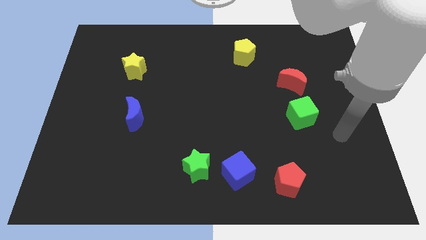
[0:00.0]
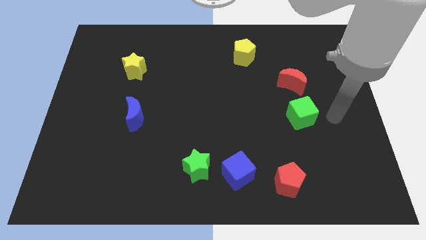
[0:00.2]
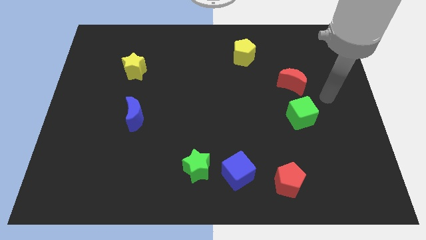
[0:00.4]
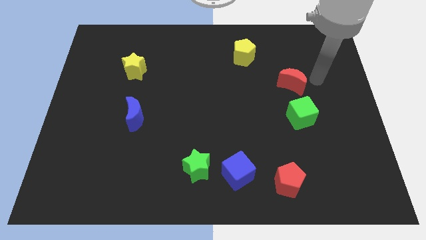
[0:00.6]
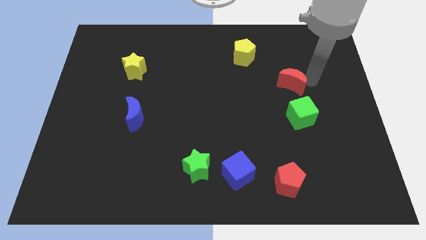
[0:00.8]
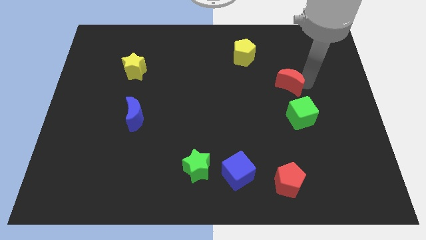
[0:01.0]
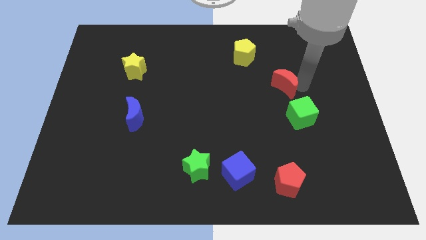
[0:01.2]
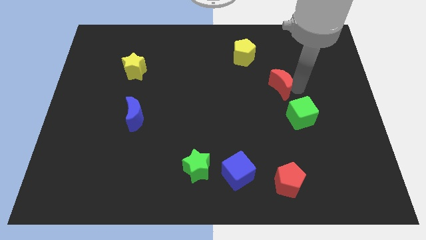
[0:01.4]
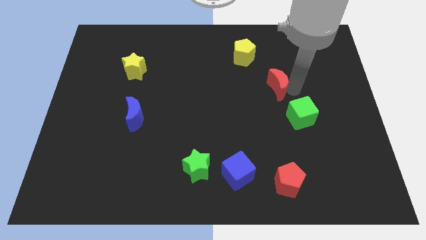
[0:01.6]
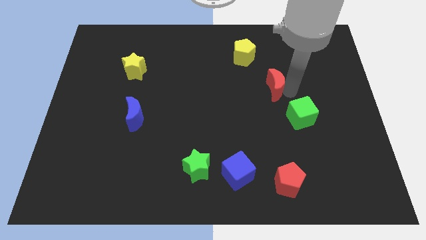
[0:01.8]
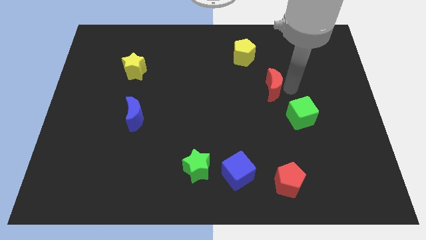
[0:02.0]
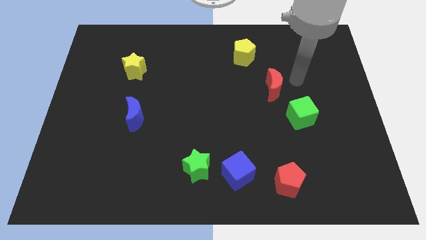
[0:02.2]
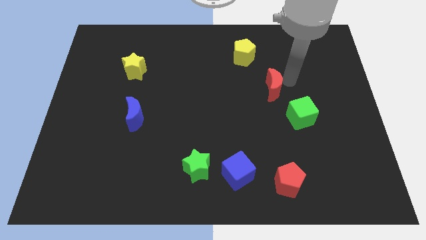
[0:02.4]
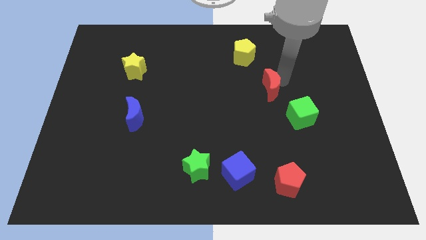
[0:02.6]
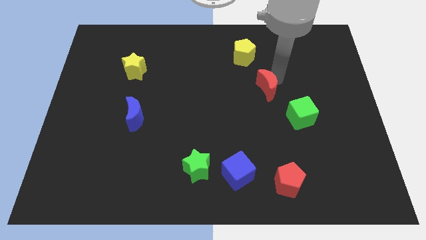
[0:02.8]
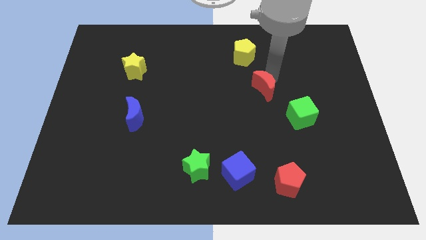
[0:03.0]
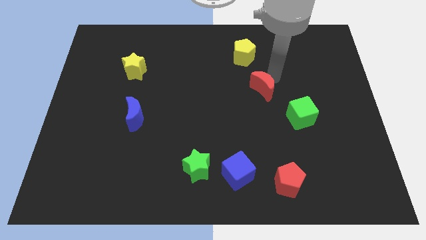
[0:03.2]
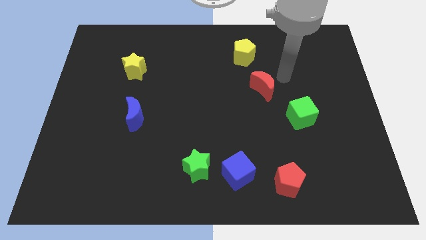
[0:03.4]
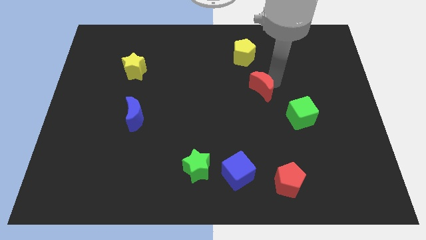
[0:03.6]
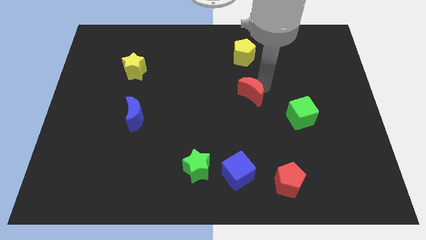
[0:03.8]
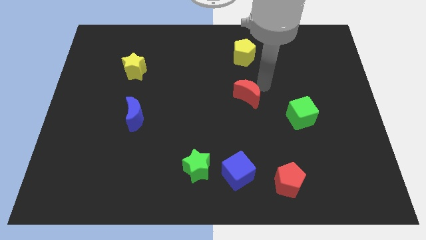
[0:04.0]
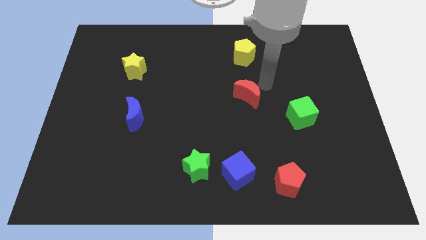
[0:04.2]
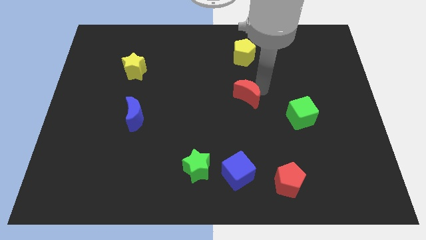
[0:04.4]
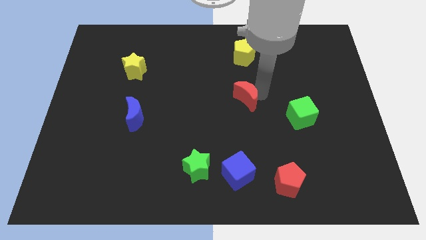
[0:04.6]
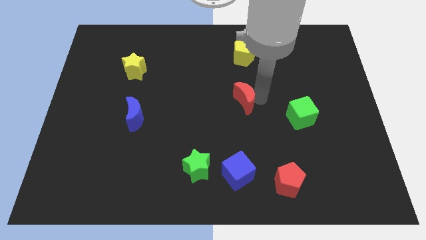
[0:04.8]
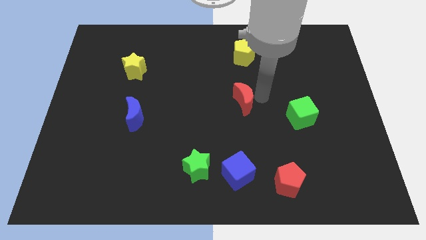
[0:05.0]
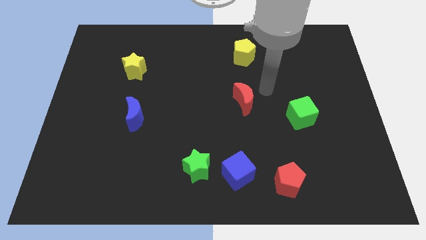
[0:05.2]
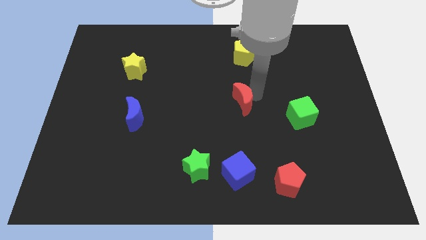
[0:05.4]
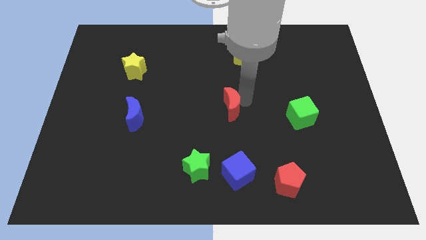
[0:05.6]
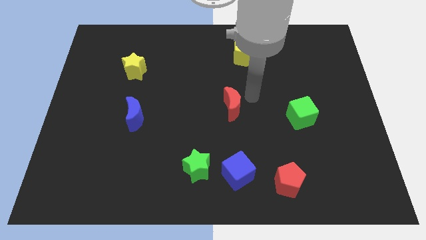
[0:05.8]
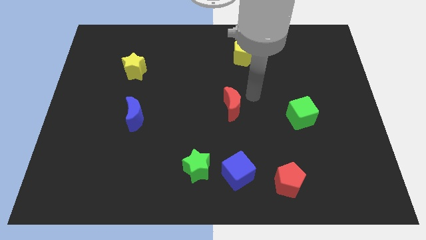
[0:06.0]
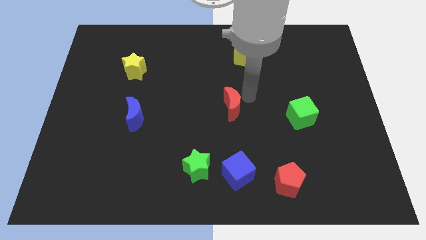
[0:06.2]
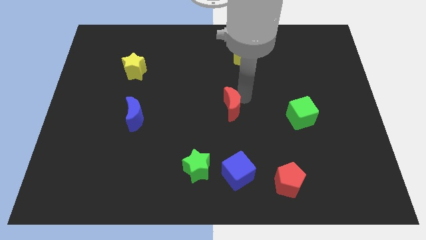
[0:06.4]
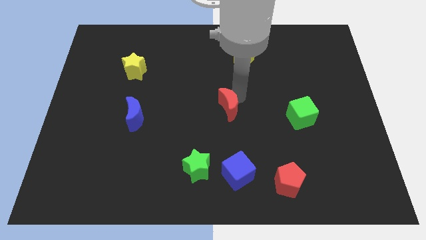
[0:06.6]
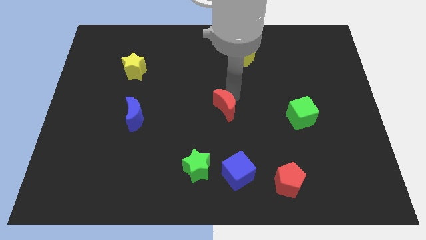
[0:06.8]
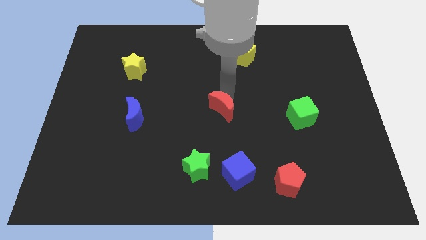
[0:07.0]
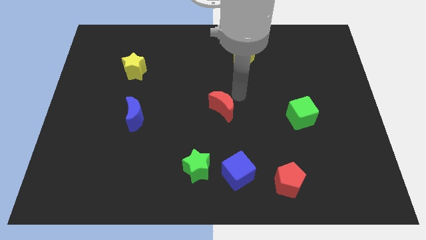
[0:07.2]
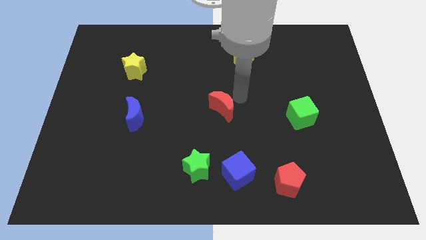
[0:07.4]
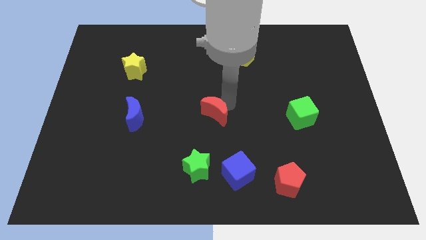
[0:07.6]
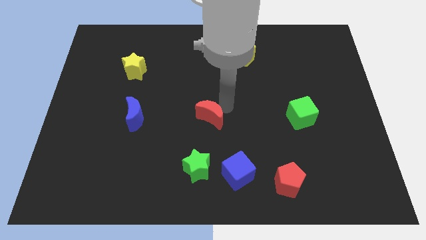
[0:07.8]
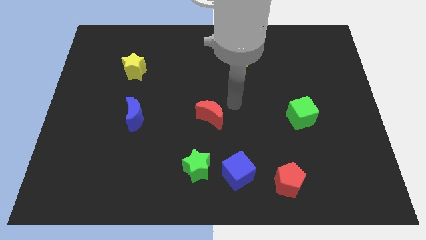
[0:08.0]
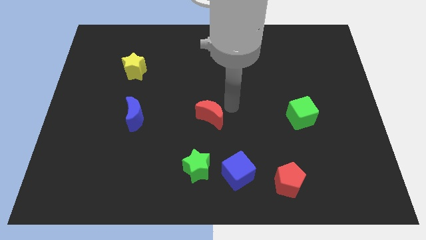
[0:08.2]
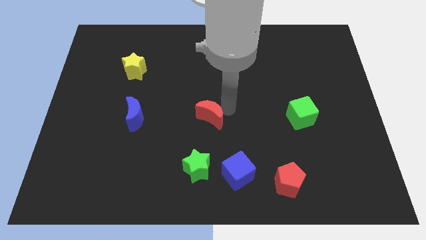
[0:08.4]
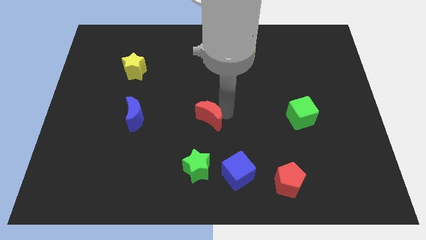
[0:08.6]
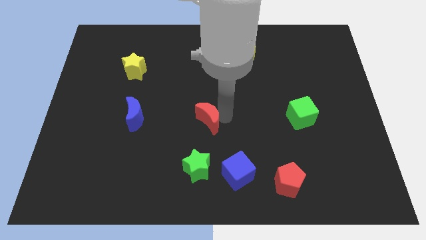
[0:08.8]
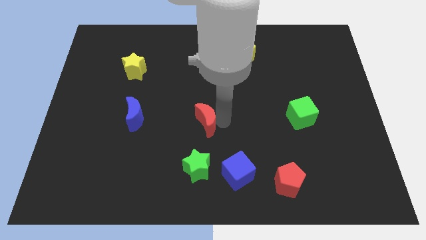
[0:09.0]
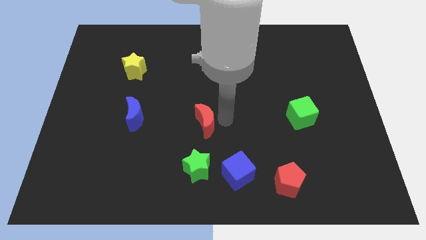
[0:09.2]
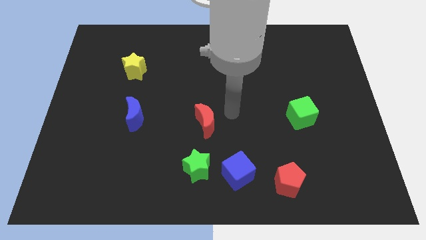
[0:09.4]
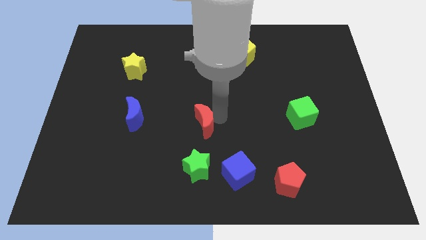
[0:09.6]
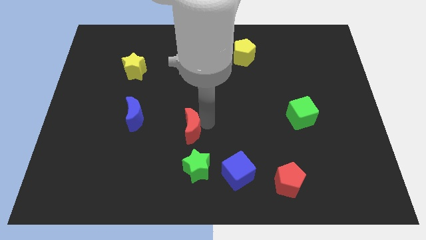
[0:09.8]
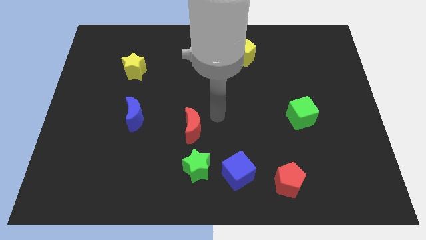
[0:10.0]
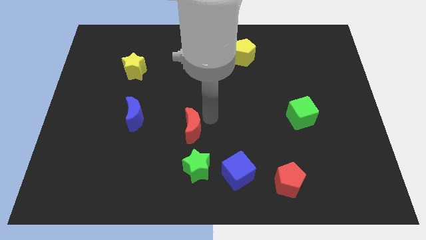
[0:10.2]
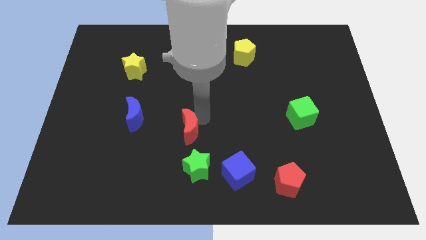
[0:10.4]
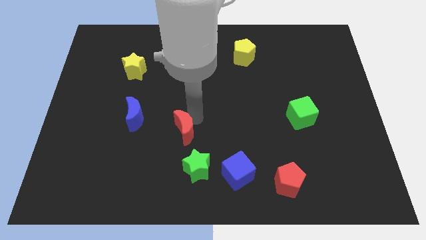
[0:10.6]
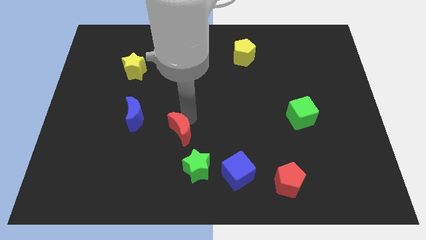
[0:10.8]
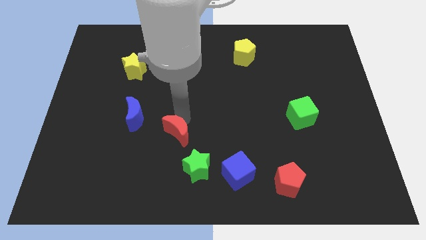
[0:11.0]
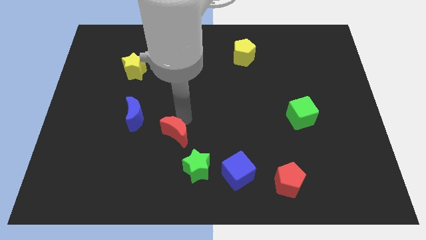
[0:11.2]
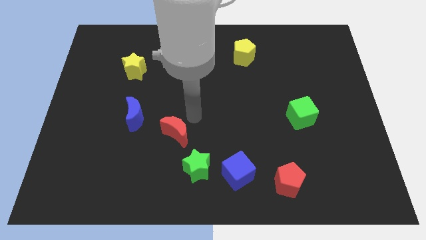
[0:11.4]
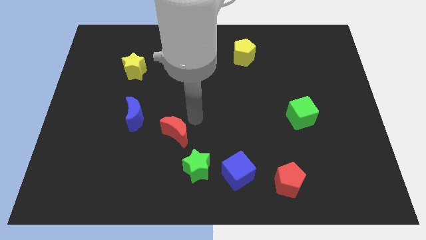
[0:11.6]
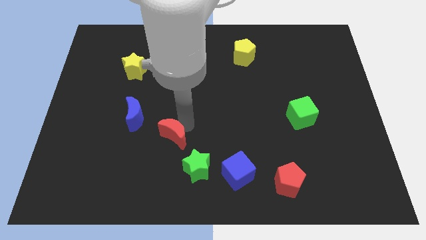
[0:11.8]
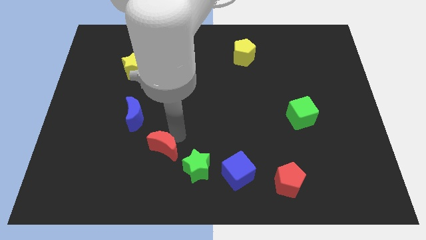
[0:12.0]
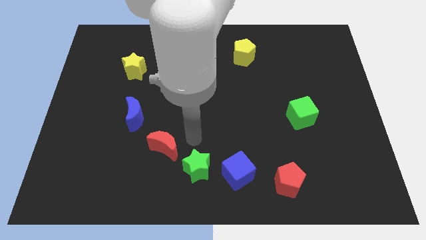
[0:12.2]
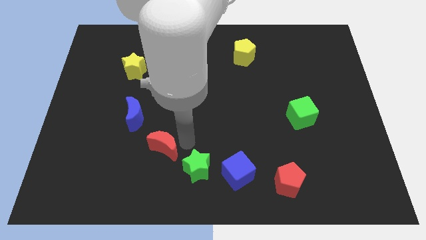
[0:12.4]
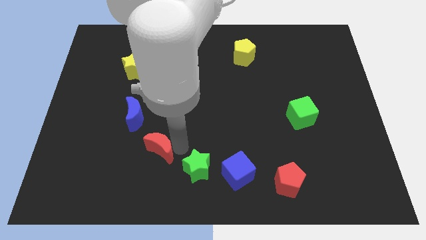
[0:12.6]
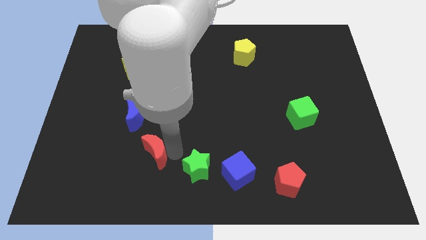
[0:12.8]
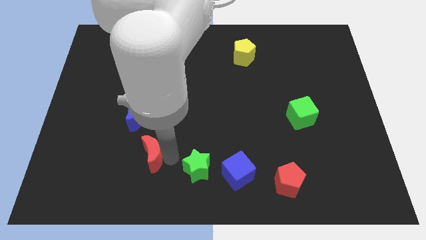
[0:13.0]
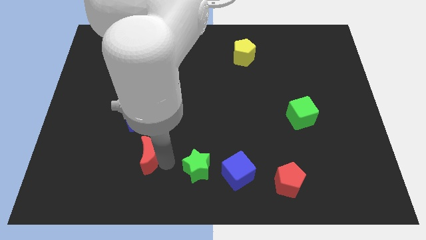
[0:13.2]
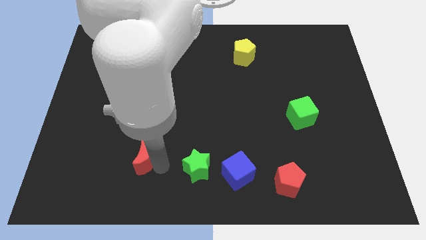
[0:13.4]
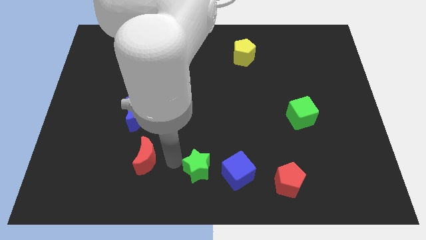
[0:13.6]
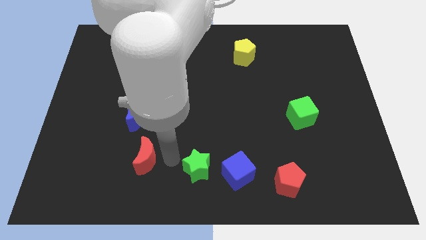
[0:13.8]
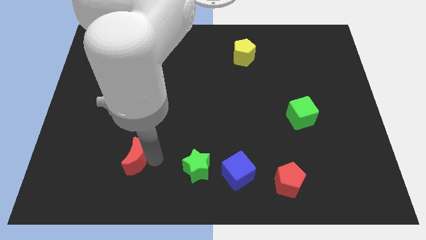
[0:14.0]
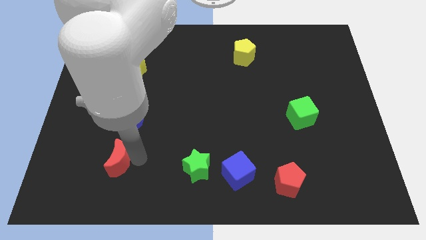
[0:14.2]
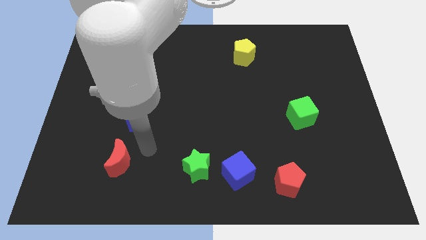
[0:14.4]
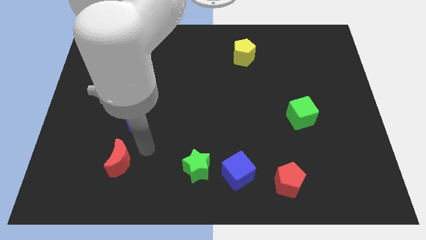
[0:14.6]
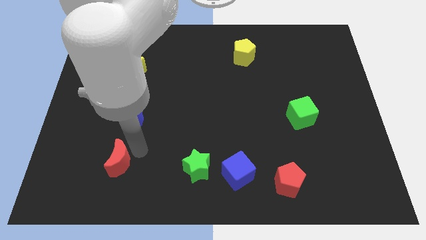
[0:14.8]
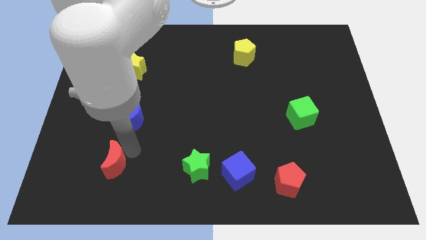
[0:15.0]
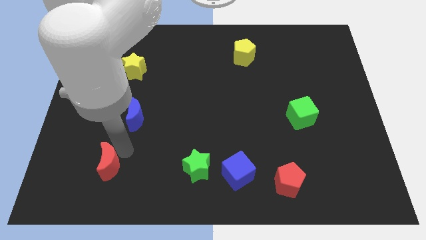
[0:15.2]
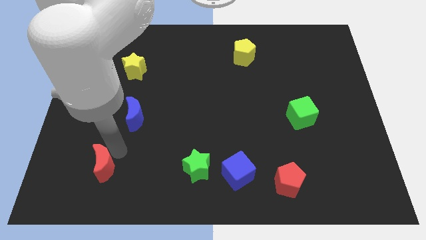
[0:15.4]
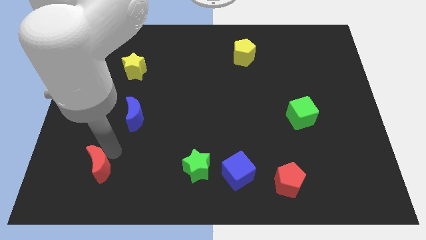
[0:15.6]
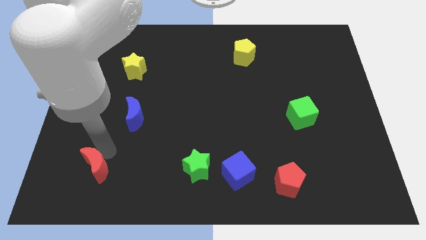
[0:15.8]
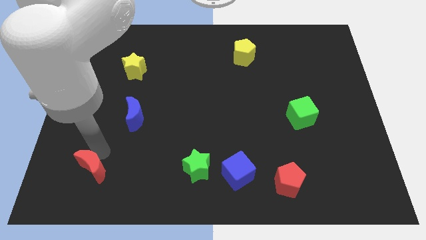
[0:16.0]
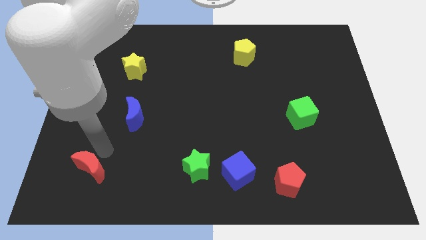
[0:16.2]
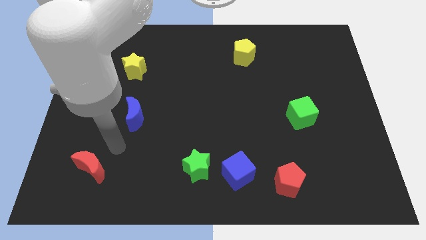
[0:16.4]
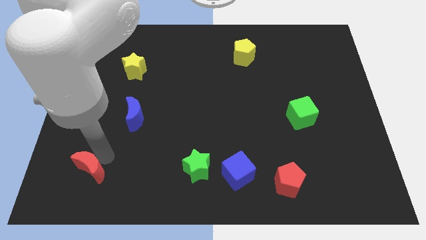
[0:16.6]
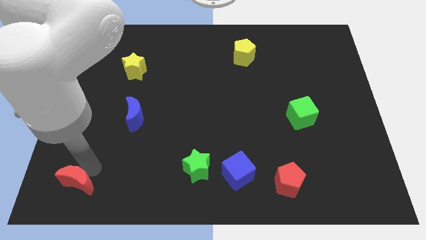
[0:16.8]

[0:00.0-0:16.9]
push the red moon to the bottom left of the board

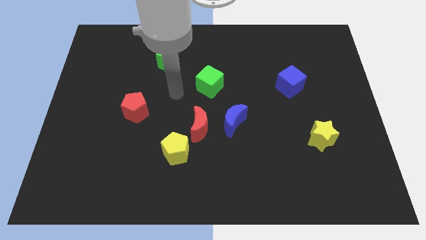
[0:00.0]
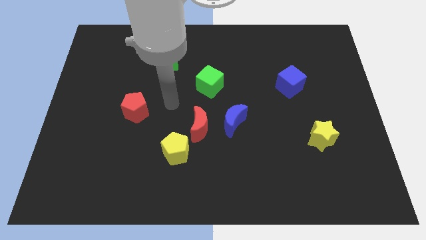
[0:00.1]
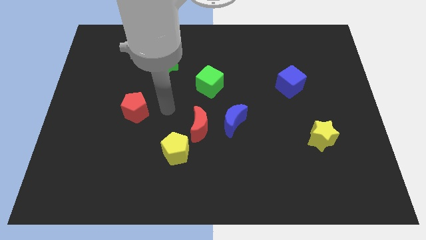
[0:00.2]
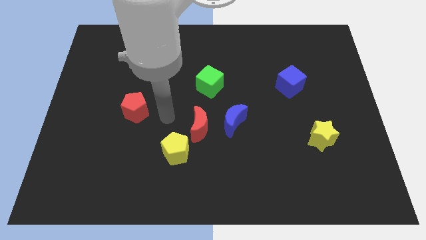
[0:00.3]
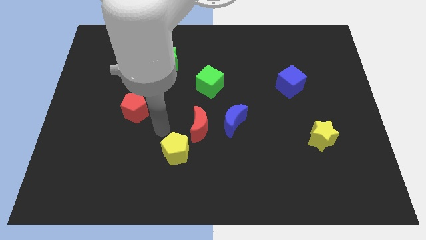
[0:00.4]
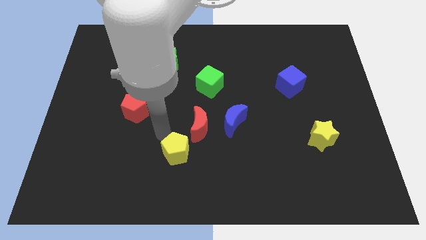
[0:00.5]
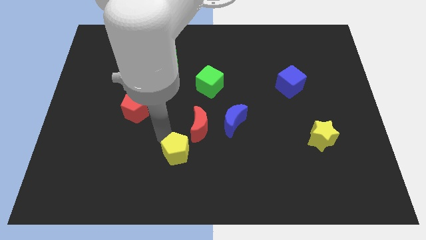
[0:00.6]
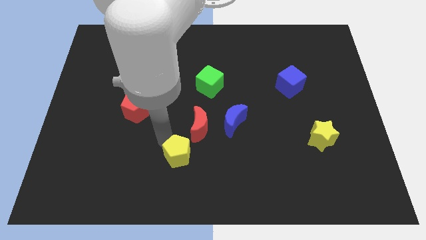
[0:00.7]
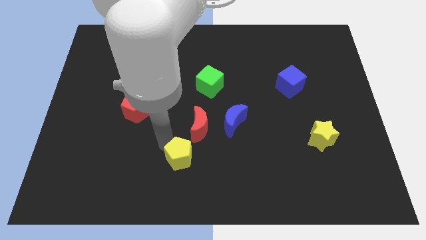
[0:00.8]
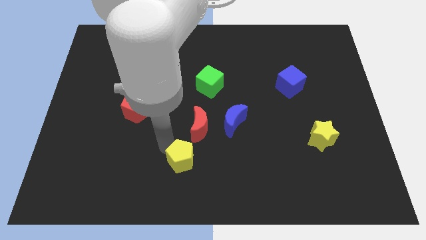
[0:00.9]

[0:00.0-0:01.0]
move the yellow pentagon to the bottom side
